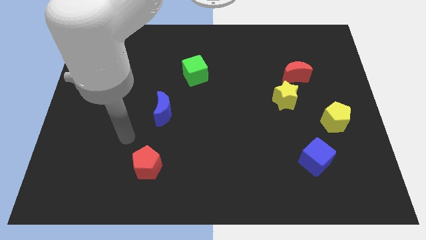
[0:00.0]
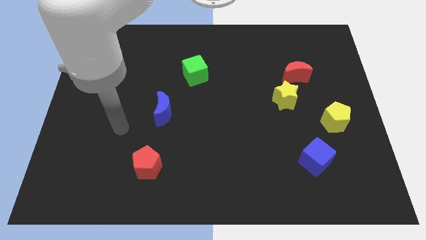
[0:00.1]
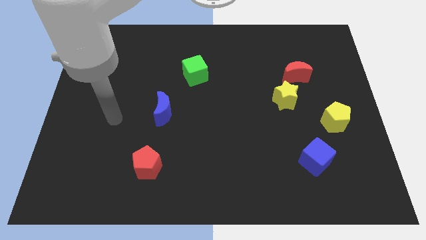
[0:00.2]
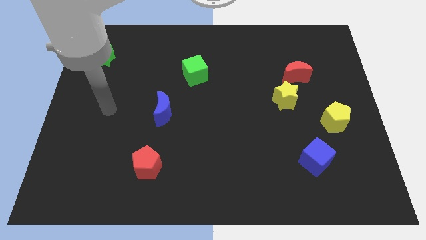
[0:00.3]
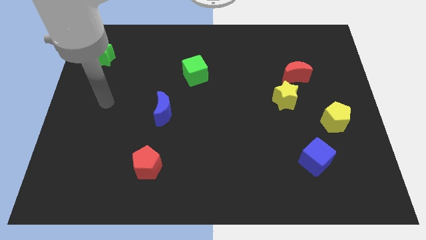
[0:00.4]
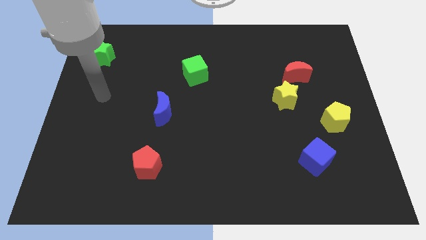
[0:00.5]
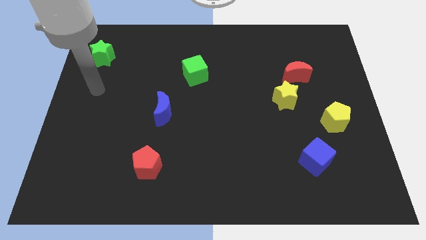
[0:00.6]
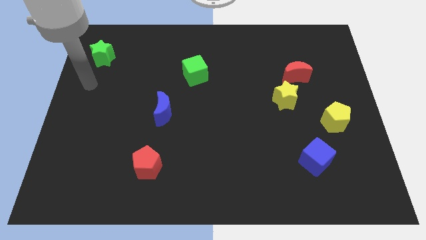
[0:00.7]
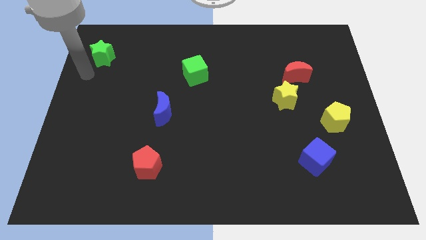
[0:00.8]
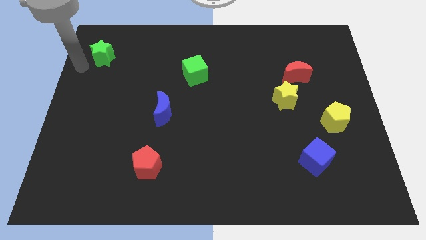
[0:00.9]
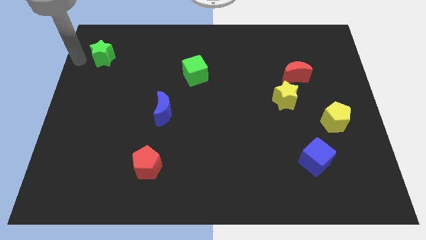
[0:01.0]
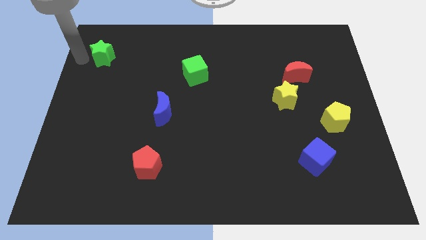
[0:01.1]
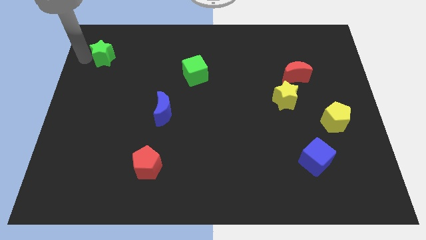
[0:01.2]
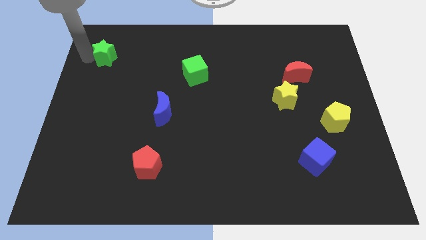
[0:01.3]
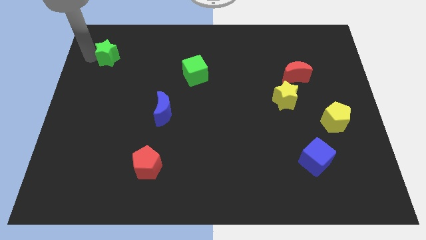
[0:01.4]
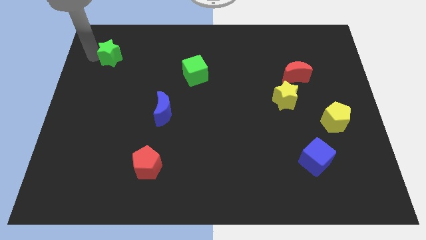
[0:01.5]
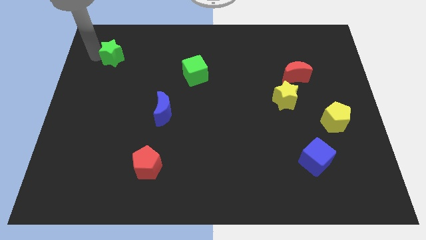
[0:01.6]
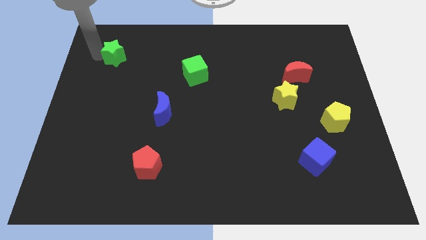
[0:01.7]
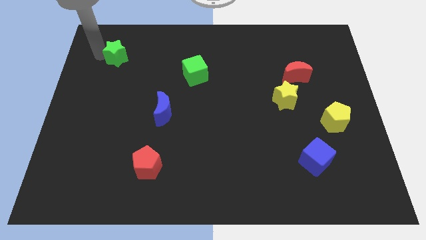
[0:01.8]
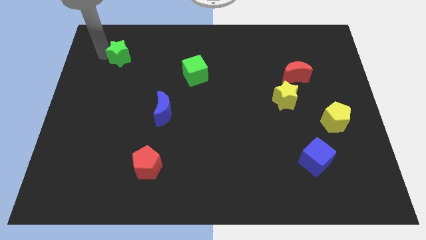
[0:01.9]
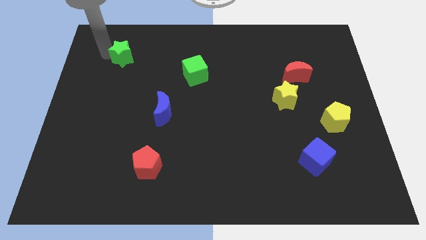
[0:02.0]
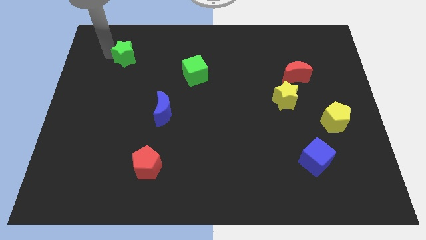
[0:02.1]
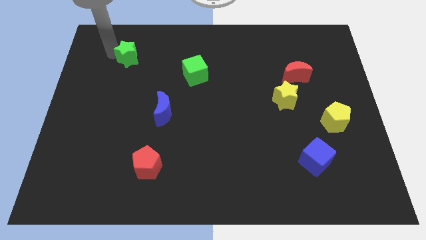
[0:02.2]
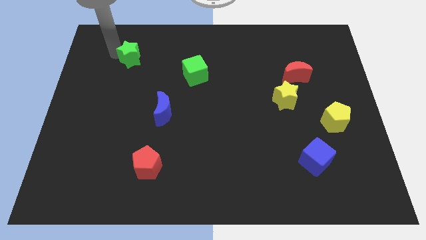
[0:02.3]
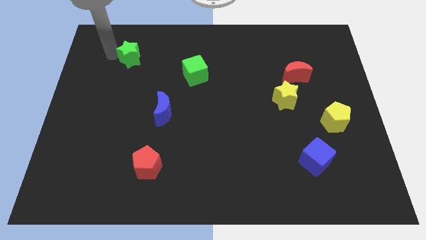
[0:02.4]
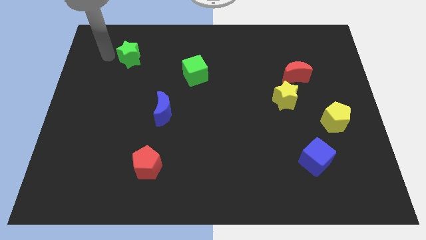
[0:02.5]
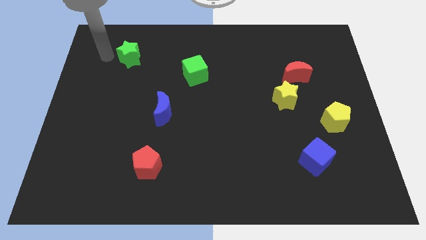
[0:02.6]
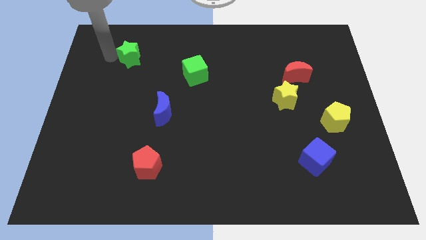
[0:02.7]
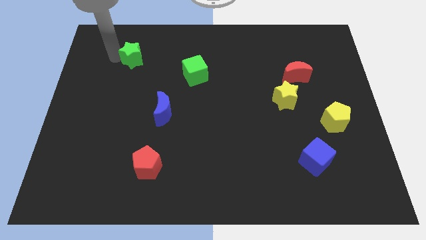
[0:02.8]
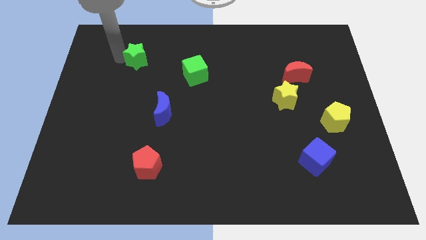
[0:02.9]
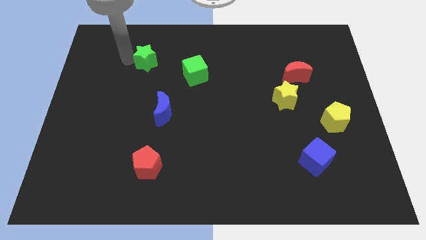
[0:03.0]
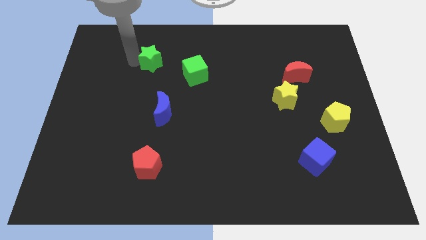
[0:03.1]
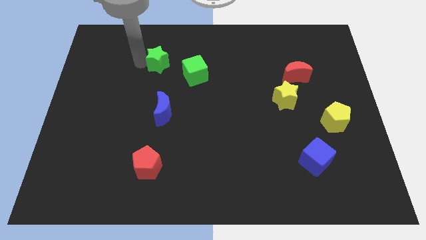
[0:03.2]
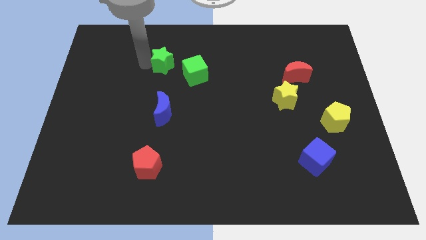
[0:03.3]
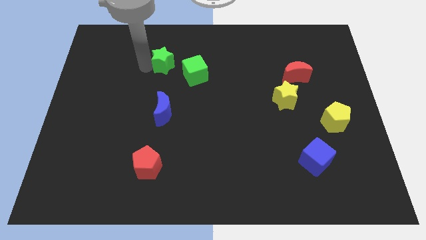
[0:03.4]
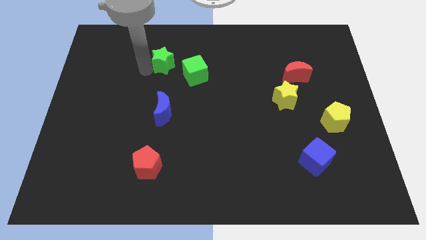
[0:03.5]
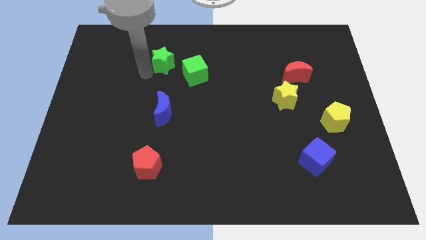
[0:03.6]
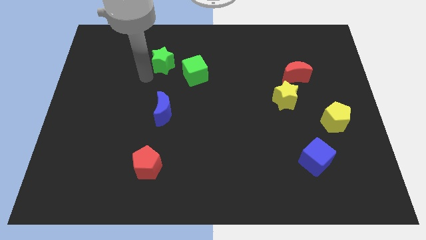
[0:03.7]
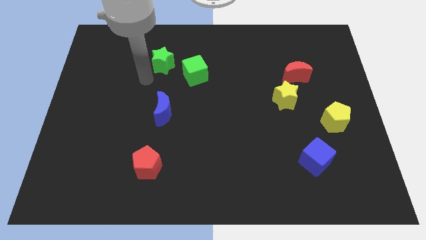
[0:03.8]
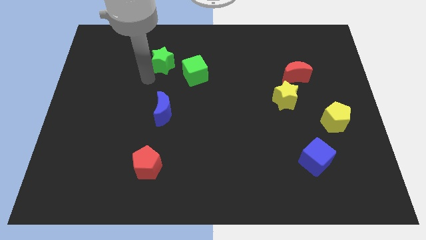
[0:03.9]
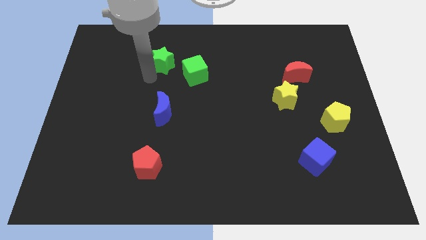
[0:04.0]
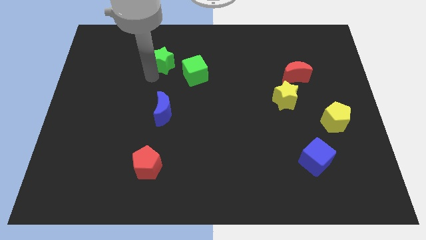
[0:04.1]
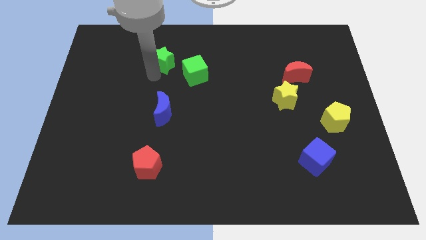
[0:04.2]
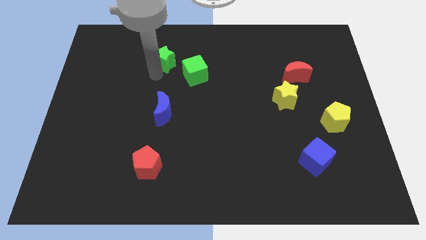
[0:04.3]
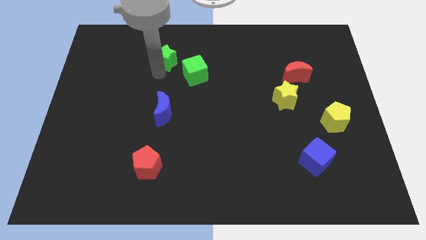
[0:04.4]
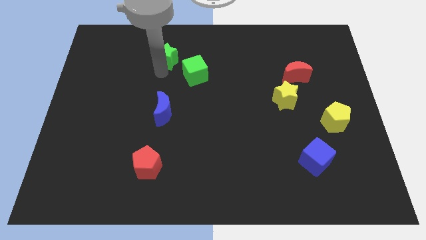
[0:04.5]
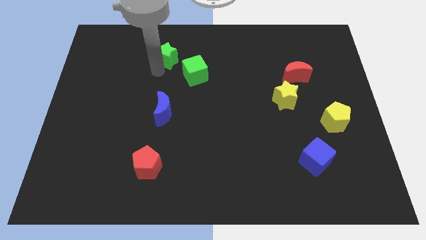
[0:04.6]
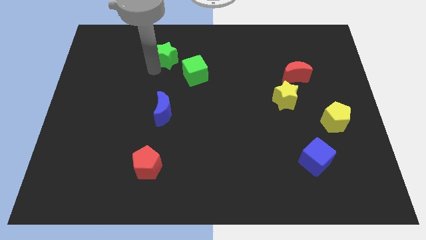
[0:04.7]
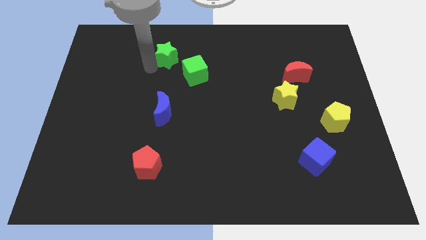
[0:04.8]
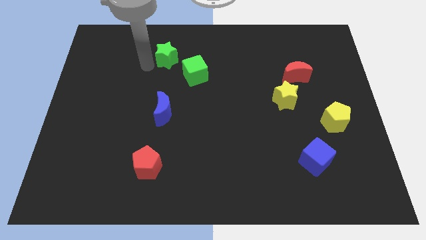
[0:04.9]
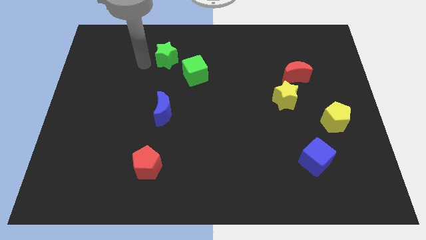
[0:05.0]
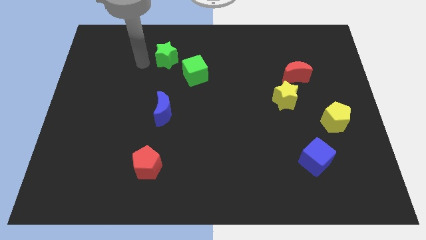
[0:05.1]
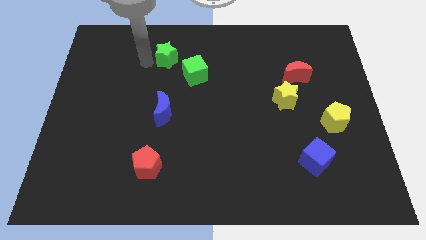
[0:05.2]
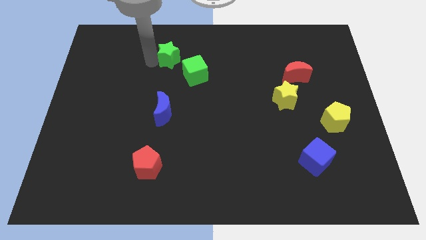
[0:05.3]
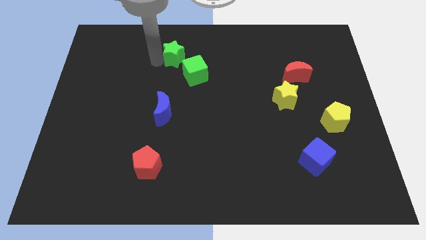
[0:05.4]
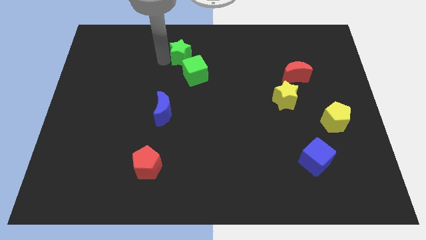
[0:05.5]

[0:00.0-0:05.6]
push the green star to the right

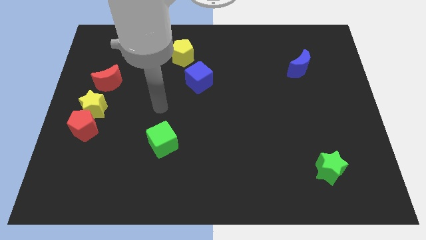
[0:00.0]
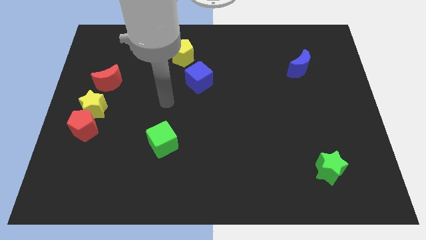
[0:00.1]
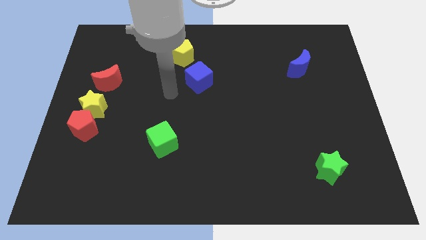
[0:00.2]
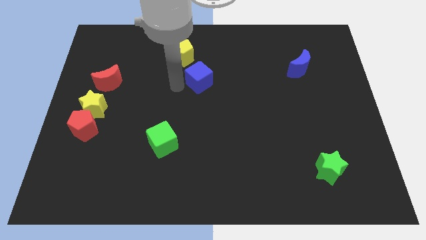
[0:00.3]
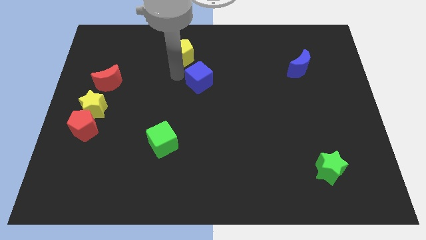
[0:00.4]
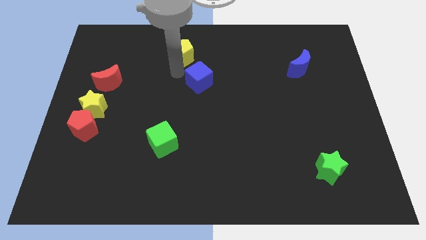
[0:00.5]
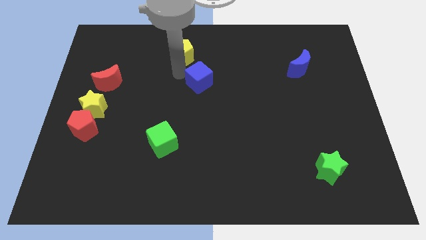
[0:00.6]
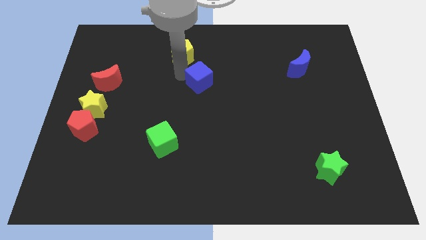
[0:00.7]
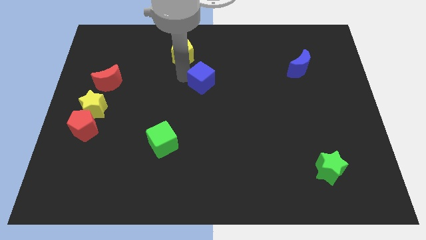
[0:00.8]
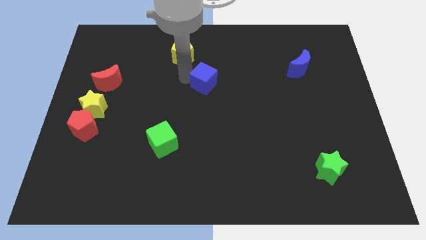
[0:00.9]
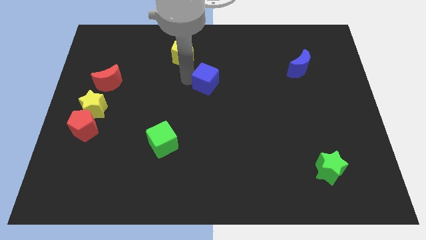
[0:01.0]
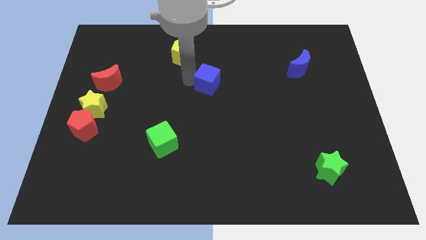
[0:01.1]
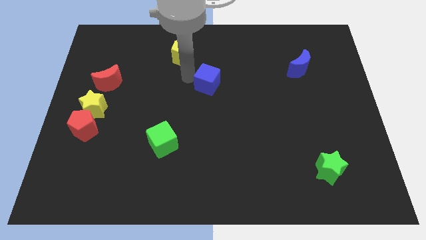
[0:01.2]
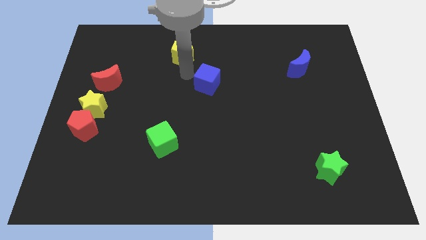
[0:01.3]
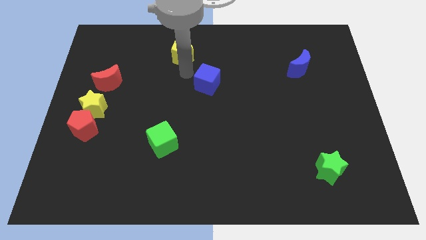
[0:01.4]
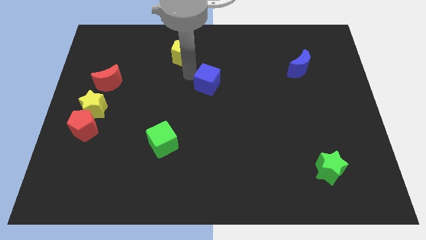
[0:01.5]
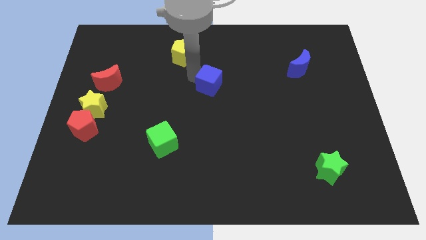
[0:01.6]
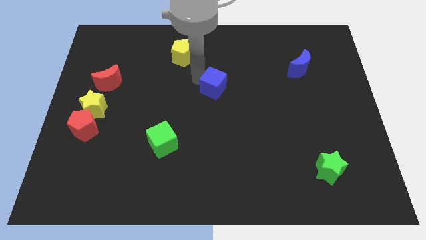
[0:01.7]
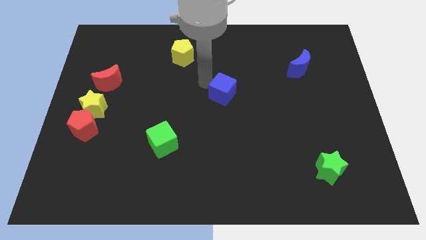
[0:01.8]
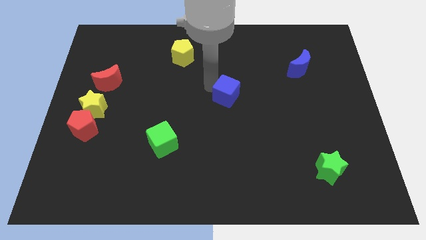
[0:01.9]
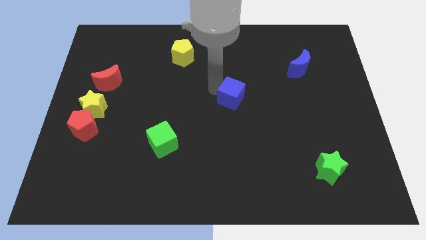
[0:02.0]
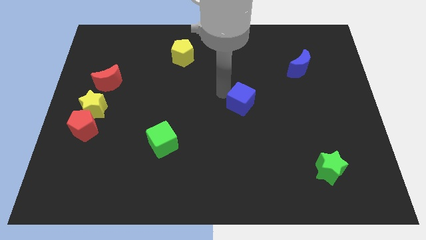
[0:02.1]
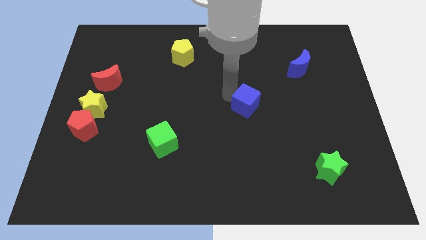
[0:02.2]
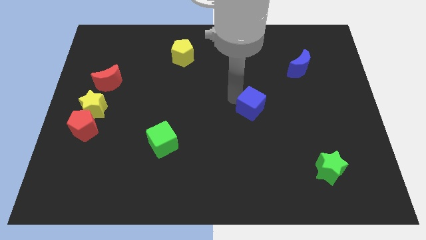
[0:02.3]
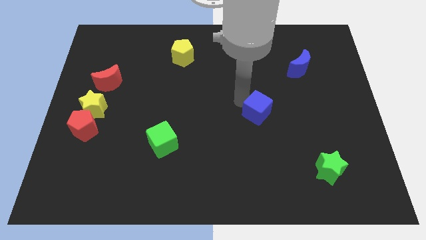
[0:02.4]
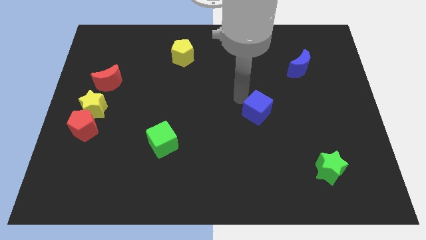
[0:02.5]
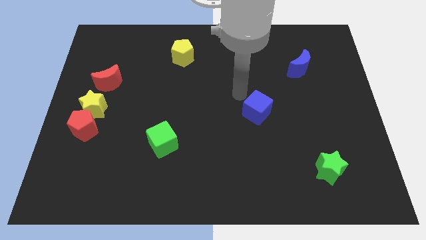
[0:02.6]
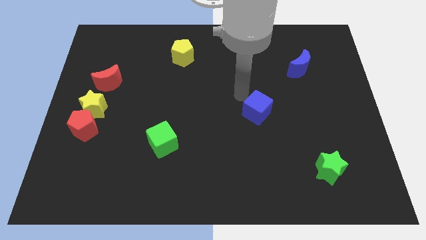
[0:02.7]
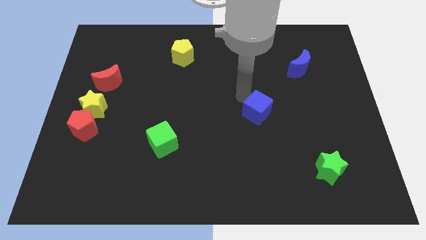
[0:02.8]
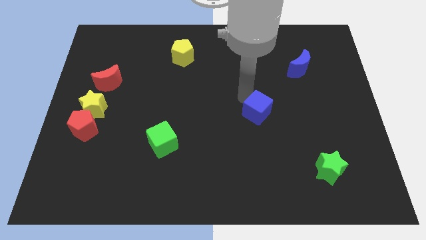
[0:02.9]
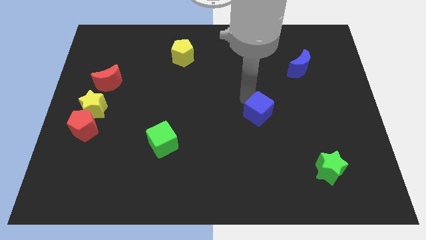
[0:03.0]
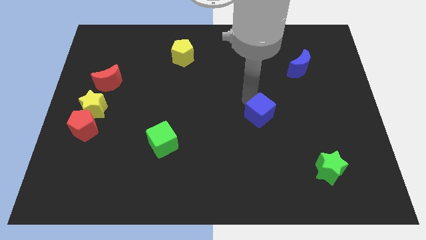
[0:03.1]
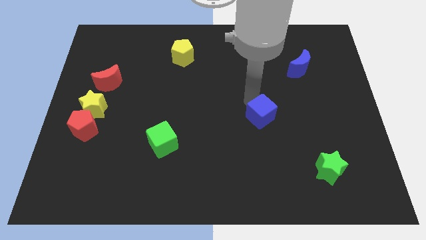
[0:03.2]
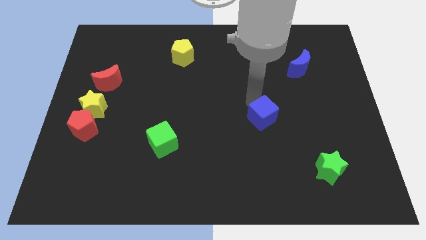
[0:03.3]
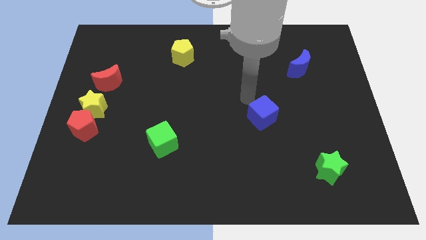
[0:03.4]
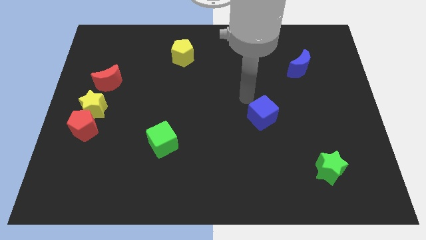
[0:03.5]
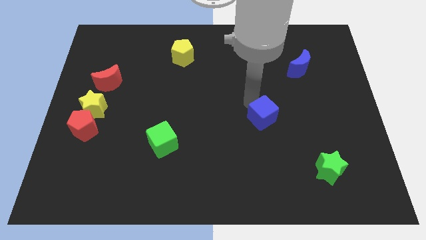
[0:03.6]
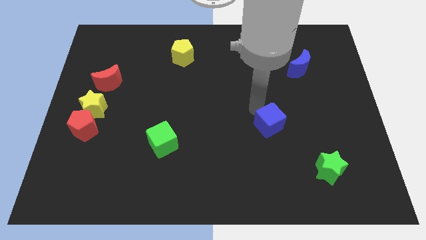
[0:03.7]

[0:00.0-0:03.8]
slide the blue cube downwards and then right
